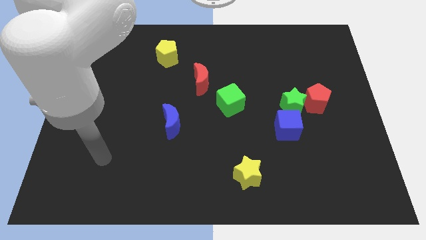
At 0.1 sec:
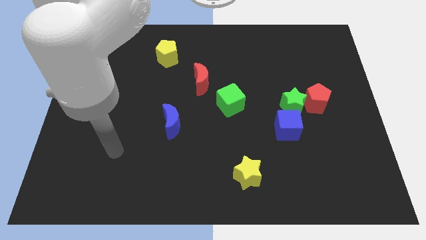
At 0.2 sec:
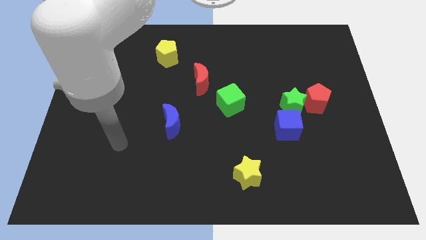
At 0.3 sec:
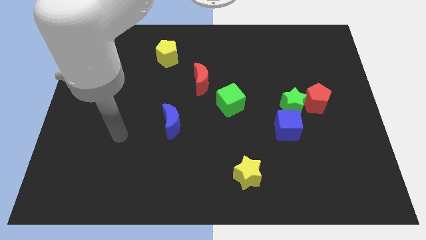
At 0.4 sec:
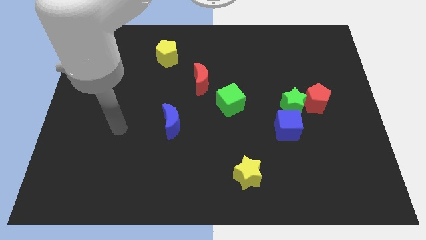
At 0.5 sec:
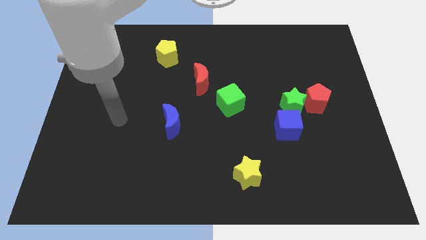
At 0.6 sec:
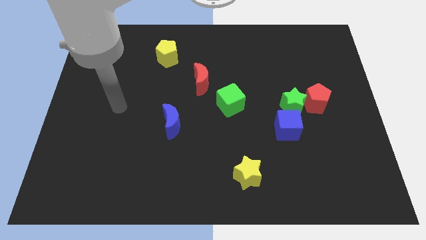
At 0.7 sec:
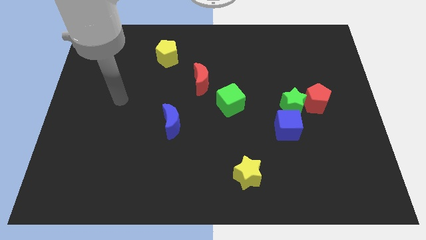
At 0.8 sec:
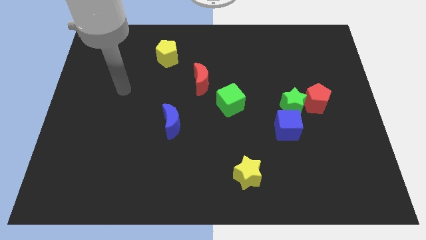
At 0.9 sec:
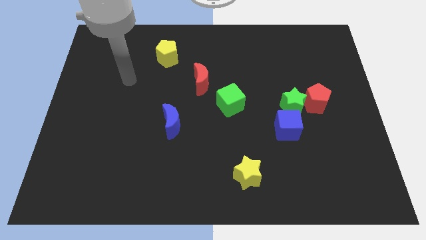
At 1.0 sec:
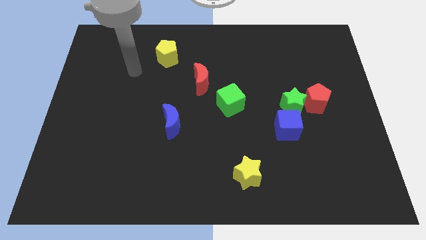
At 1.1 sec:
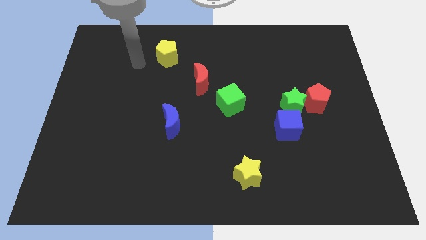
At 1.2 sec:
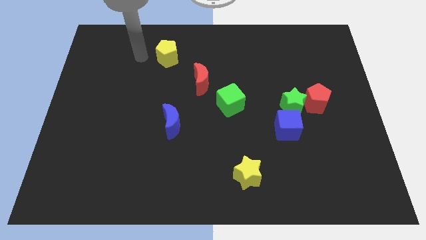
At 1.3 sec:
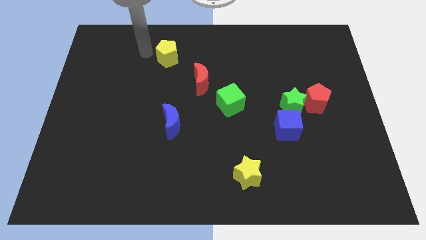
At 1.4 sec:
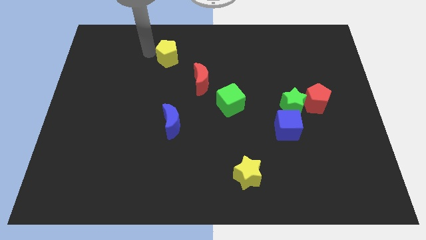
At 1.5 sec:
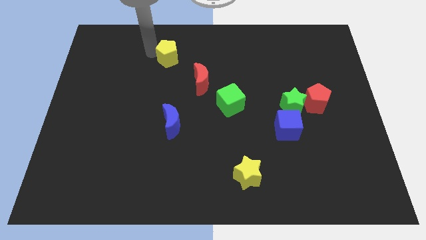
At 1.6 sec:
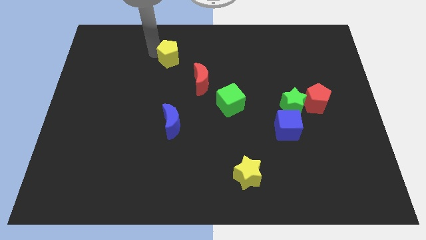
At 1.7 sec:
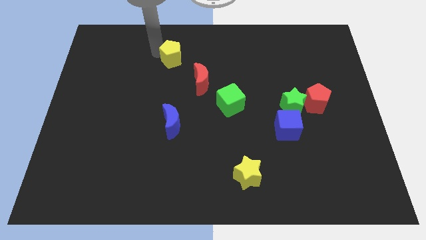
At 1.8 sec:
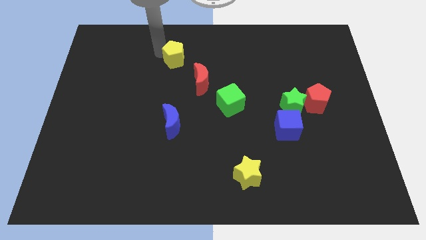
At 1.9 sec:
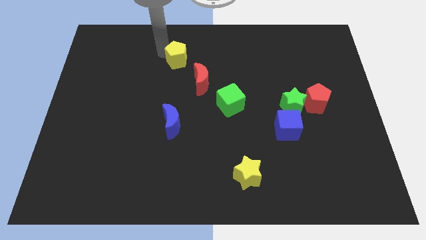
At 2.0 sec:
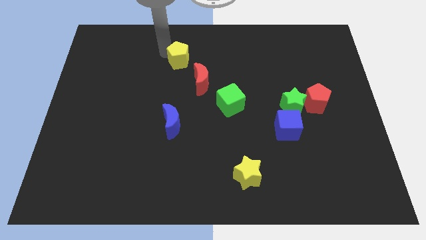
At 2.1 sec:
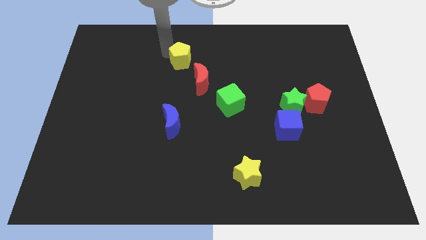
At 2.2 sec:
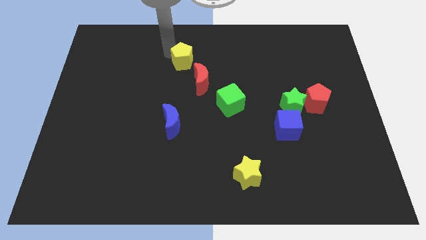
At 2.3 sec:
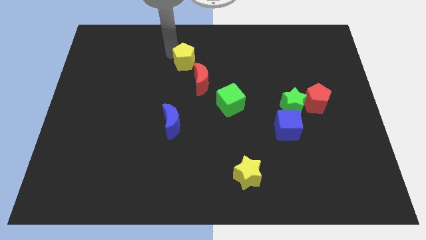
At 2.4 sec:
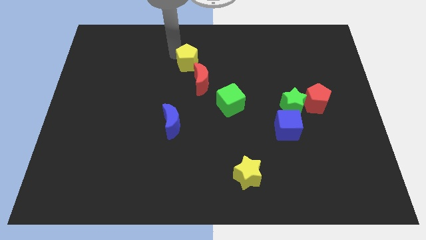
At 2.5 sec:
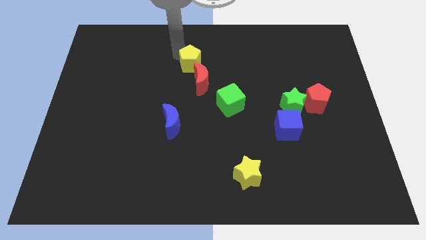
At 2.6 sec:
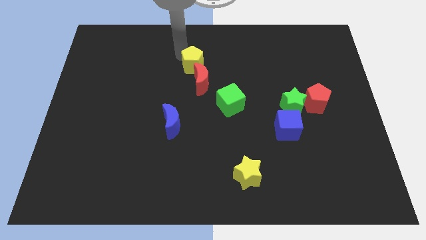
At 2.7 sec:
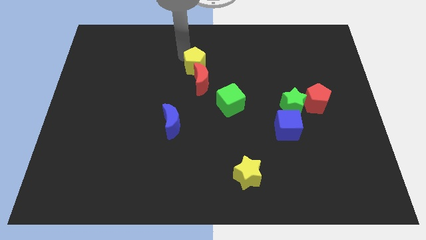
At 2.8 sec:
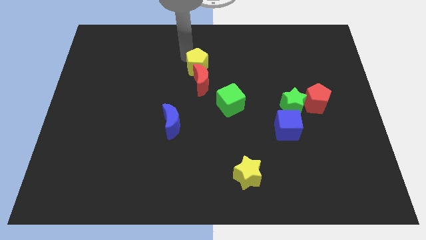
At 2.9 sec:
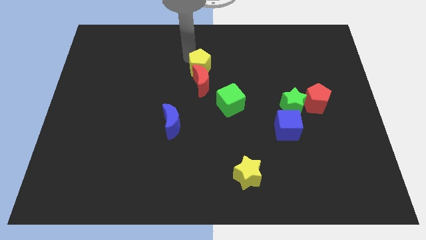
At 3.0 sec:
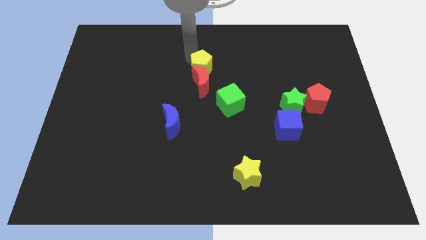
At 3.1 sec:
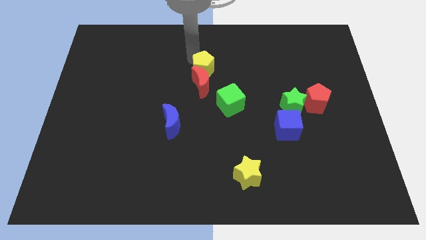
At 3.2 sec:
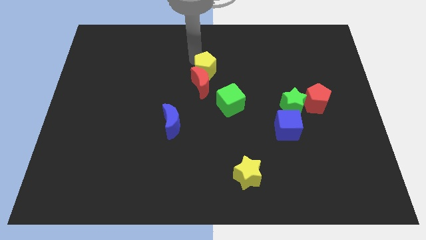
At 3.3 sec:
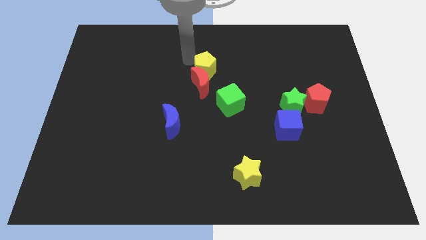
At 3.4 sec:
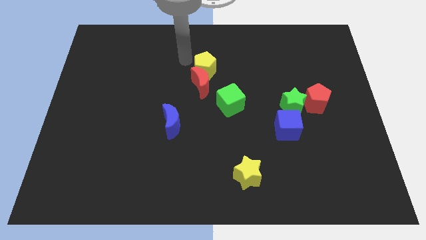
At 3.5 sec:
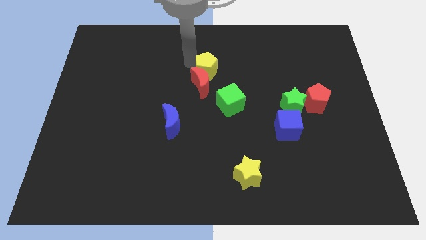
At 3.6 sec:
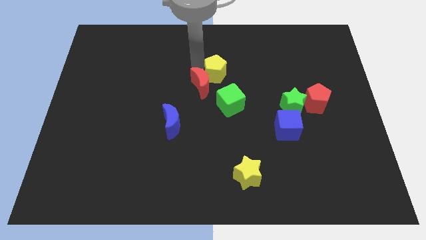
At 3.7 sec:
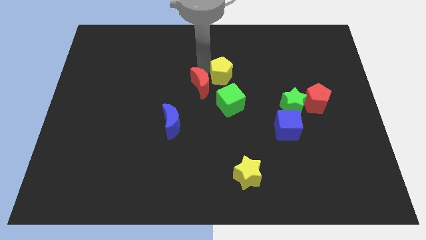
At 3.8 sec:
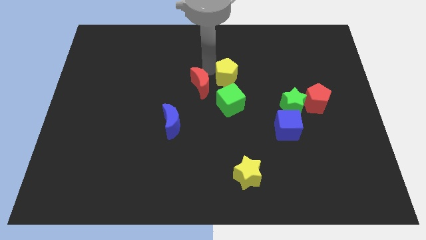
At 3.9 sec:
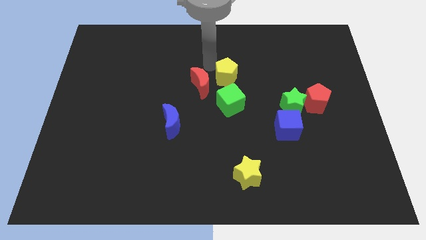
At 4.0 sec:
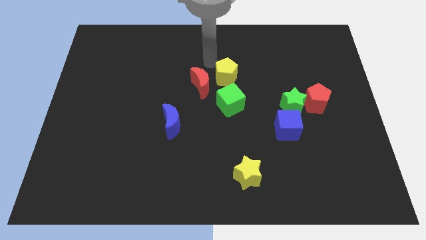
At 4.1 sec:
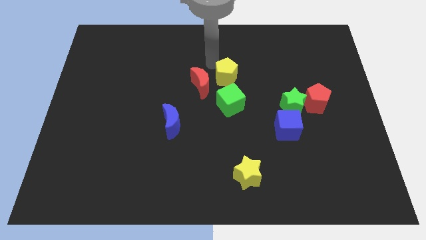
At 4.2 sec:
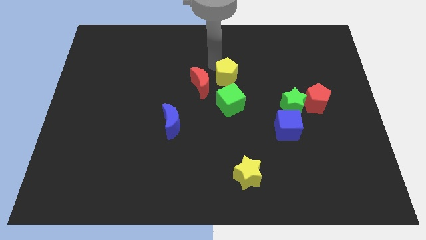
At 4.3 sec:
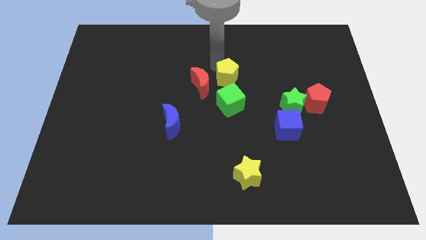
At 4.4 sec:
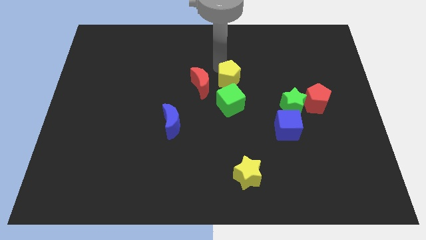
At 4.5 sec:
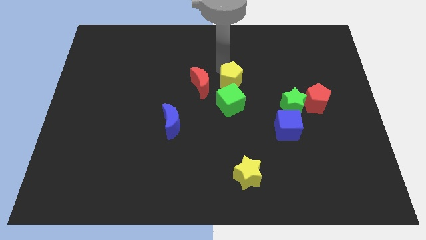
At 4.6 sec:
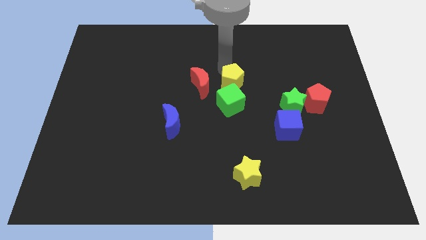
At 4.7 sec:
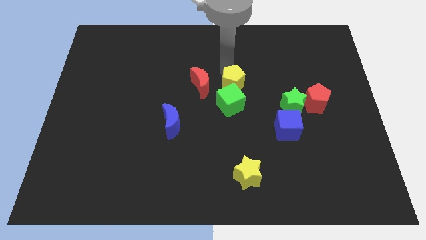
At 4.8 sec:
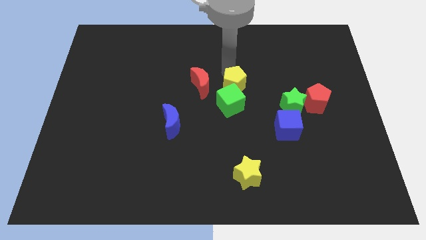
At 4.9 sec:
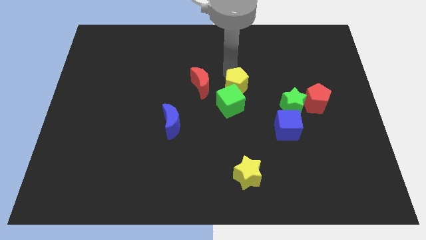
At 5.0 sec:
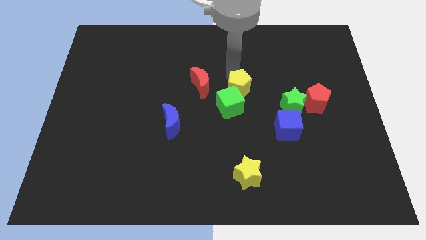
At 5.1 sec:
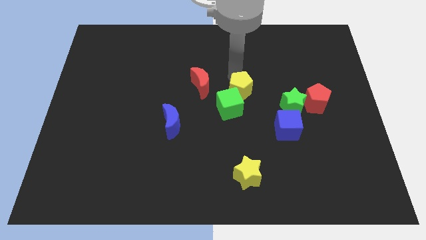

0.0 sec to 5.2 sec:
move the yellow pentagon downwards and right

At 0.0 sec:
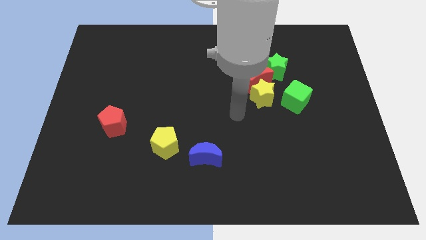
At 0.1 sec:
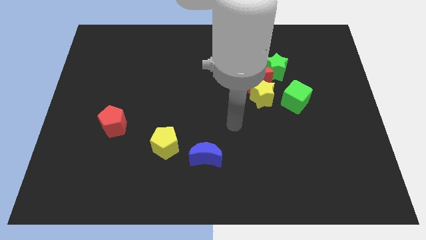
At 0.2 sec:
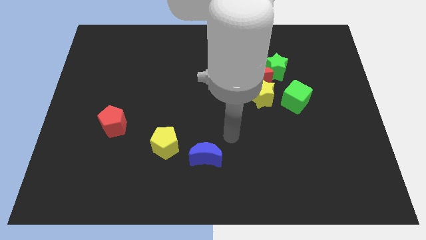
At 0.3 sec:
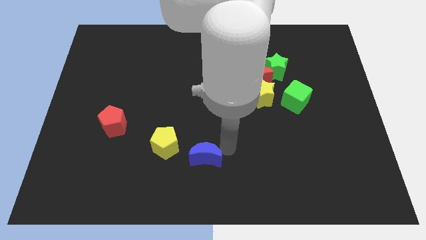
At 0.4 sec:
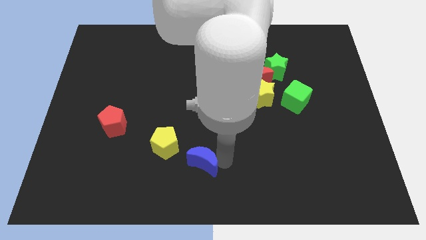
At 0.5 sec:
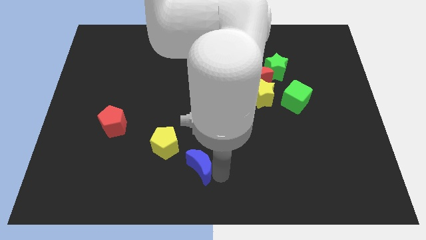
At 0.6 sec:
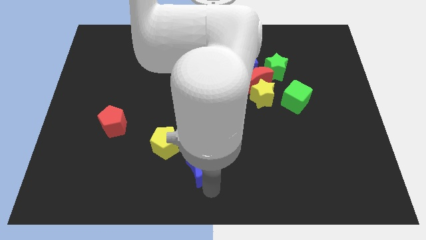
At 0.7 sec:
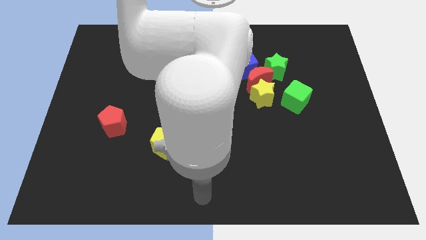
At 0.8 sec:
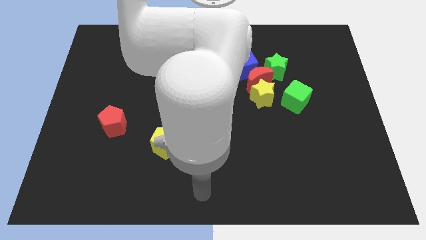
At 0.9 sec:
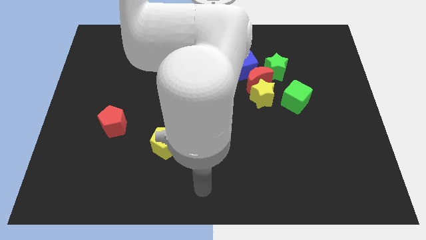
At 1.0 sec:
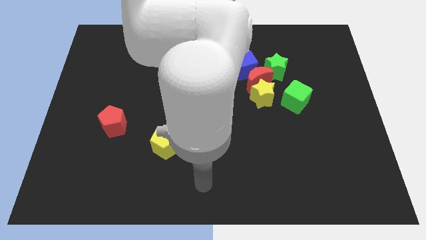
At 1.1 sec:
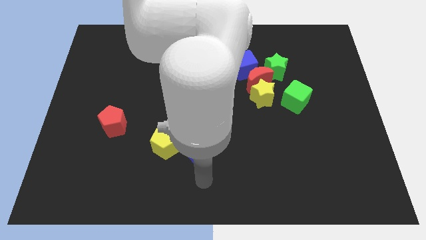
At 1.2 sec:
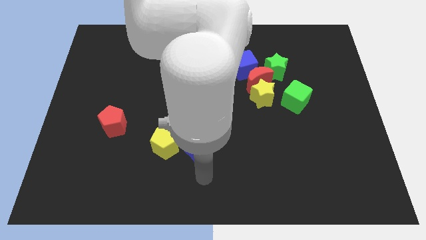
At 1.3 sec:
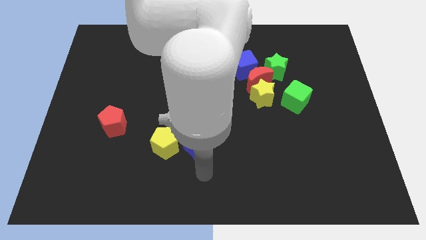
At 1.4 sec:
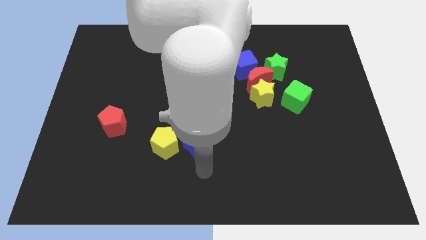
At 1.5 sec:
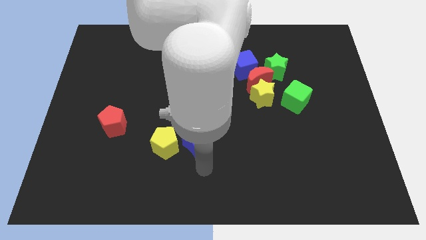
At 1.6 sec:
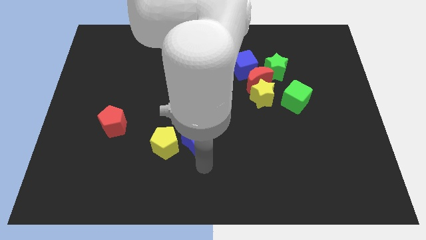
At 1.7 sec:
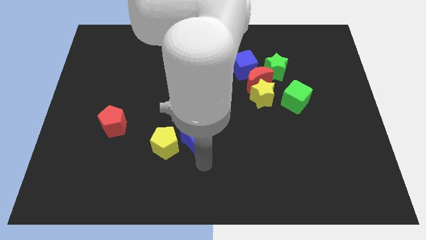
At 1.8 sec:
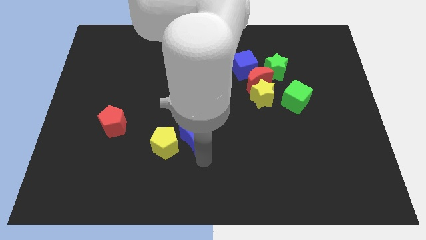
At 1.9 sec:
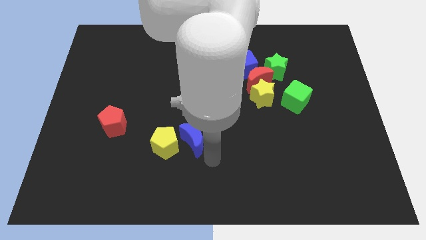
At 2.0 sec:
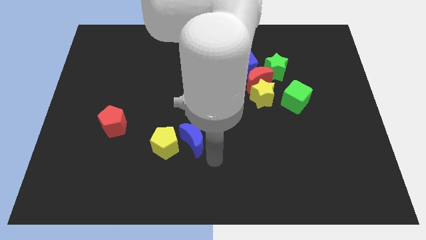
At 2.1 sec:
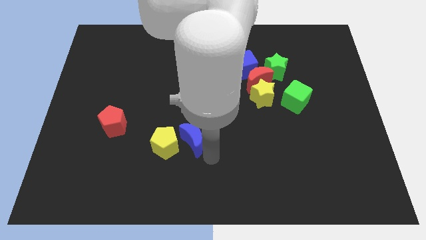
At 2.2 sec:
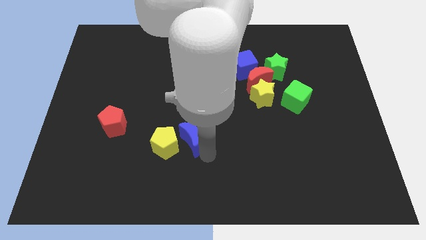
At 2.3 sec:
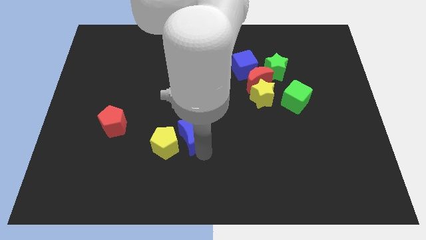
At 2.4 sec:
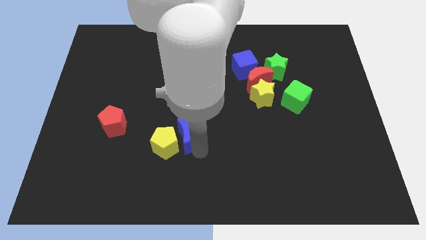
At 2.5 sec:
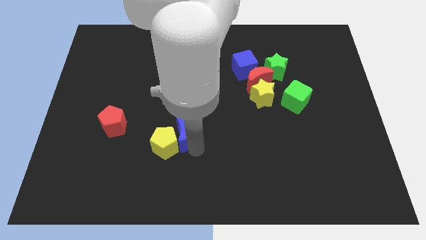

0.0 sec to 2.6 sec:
move the blue moon a bit upwards and left diagonally
